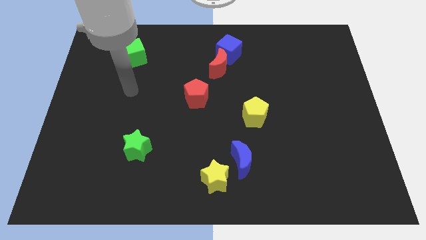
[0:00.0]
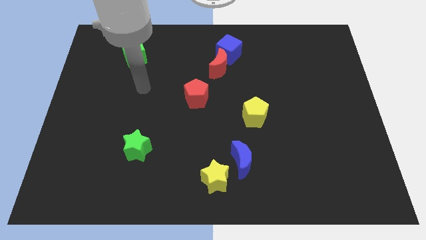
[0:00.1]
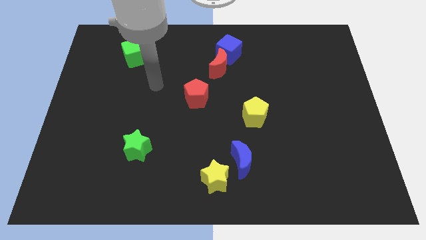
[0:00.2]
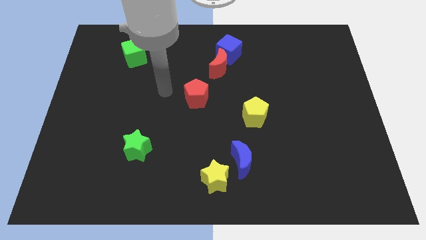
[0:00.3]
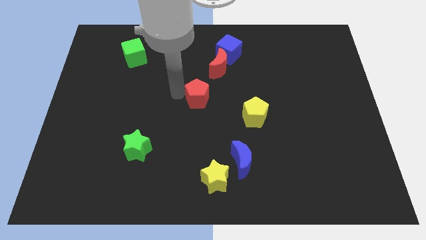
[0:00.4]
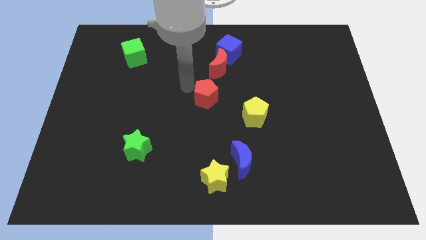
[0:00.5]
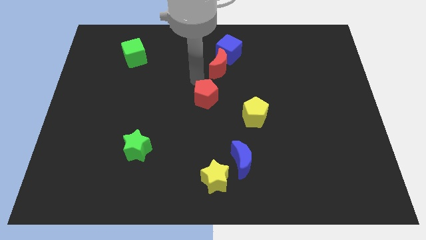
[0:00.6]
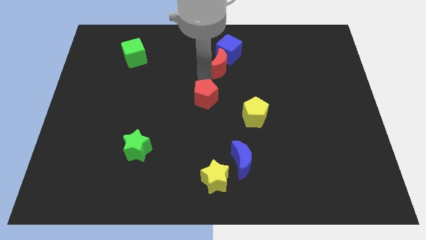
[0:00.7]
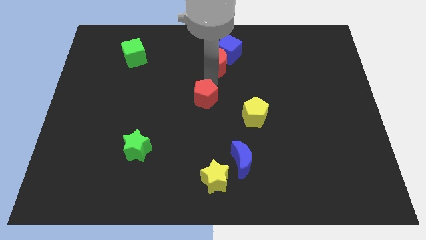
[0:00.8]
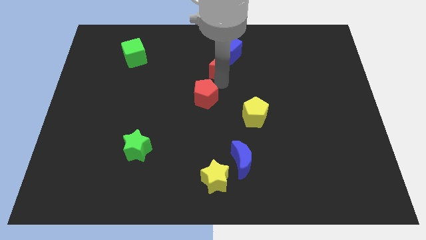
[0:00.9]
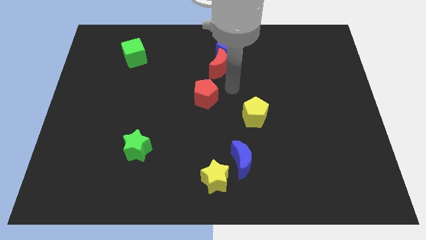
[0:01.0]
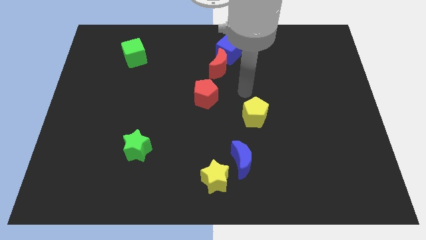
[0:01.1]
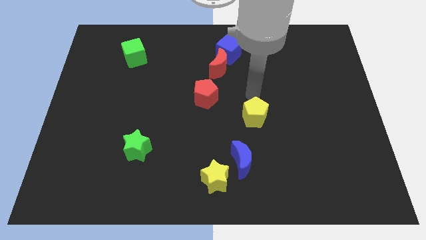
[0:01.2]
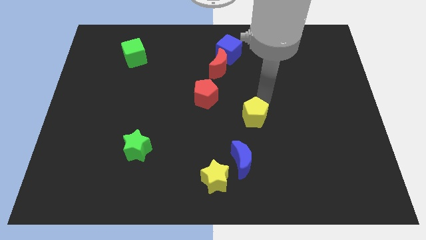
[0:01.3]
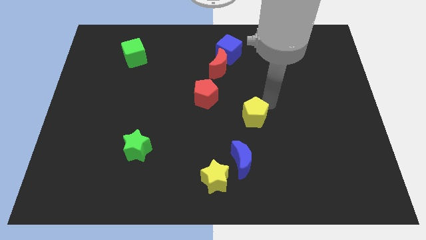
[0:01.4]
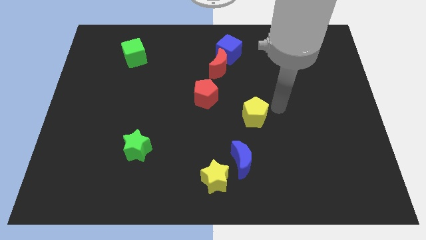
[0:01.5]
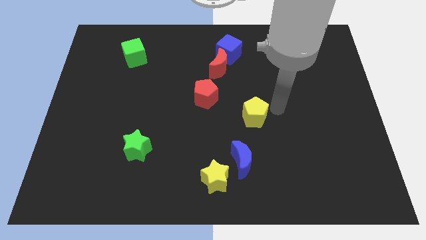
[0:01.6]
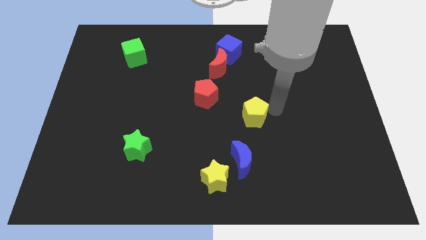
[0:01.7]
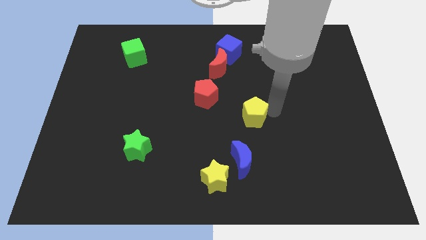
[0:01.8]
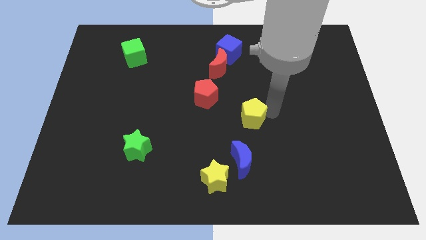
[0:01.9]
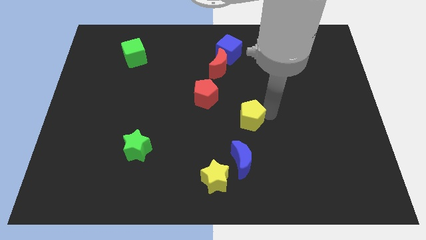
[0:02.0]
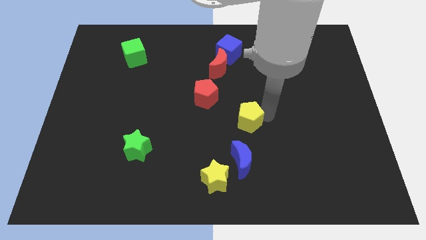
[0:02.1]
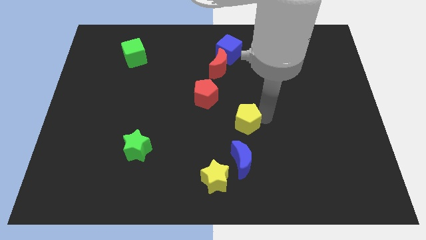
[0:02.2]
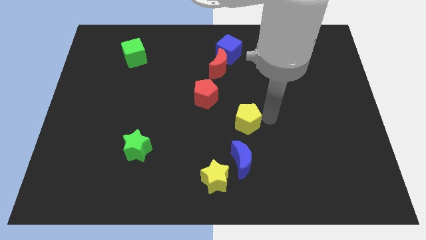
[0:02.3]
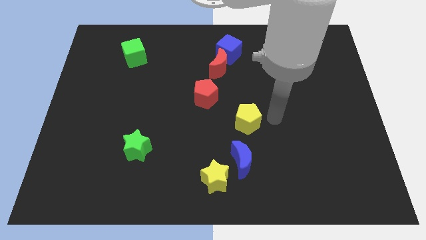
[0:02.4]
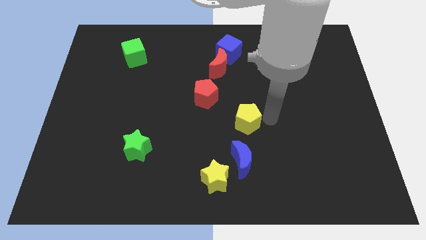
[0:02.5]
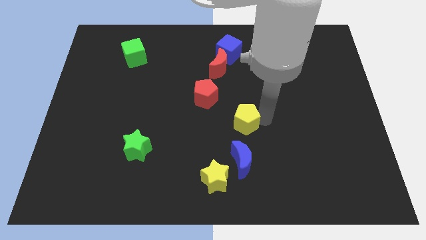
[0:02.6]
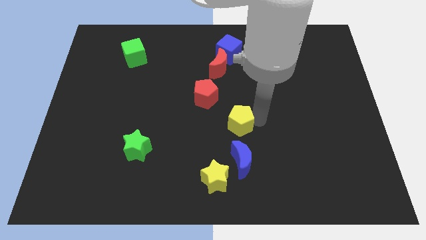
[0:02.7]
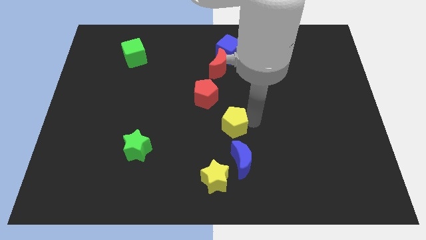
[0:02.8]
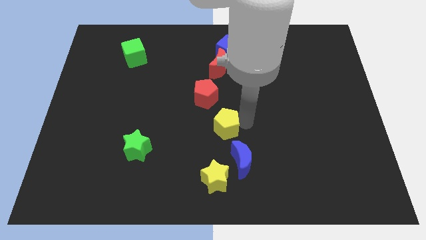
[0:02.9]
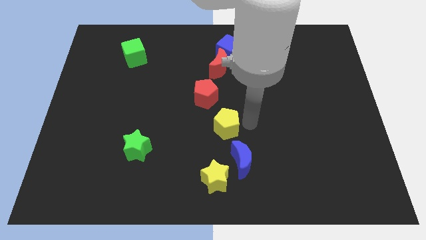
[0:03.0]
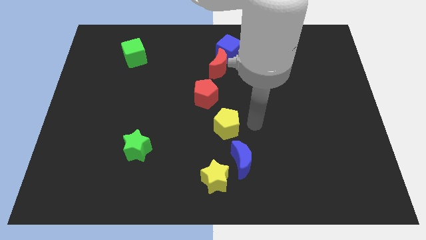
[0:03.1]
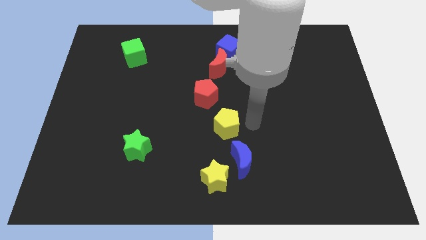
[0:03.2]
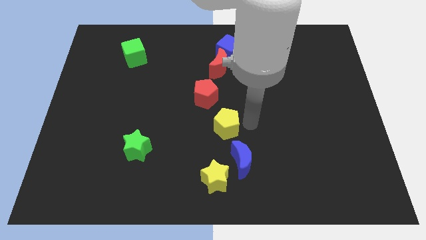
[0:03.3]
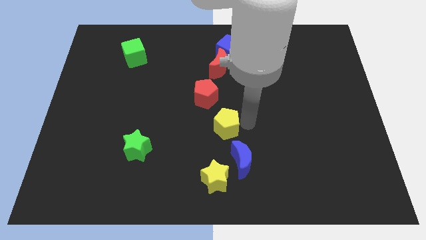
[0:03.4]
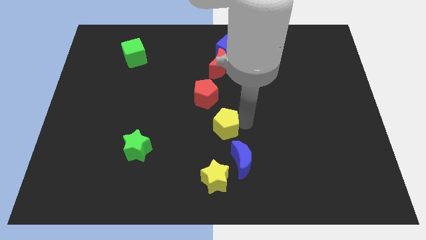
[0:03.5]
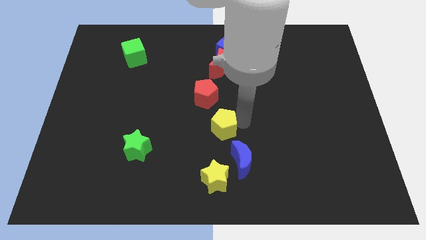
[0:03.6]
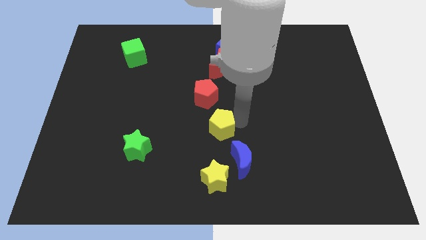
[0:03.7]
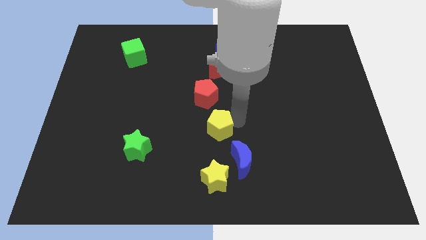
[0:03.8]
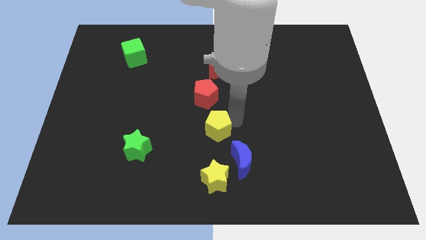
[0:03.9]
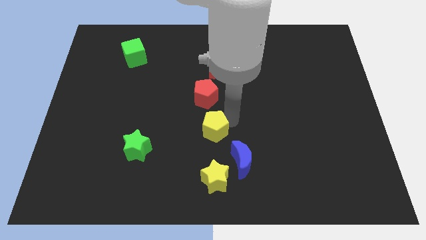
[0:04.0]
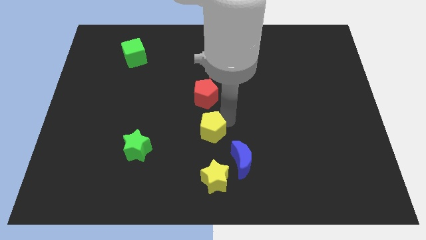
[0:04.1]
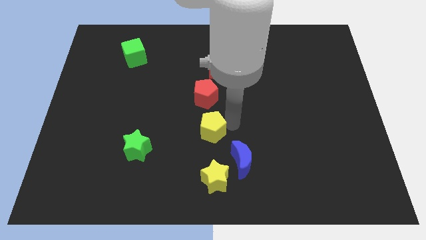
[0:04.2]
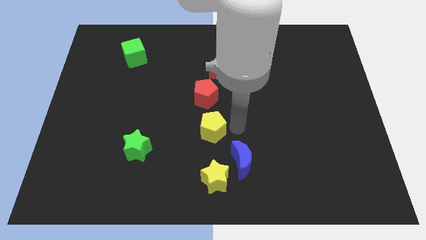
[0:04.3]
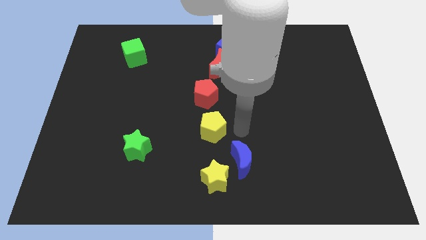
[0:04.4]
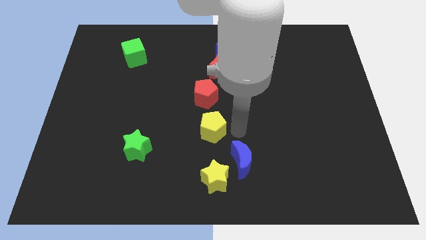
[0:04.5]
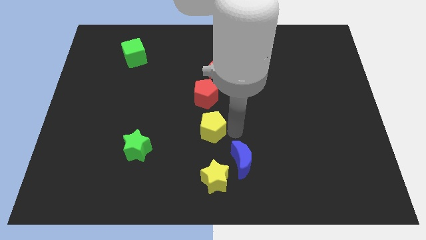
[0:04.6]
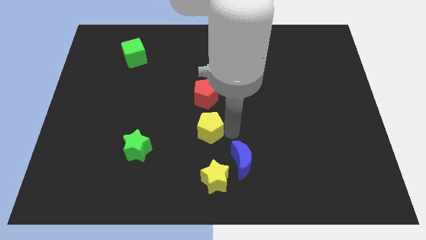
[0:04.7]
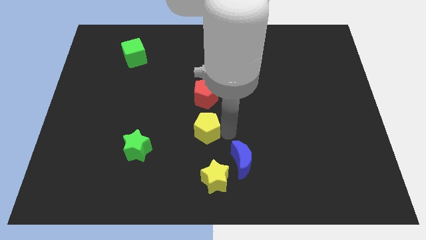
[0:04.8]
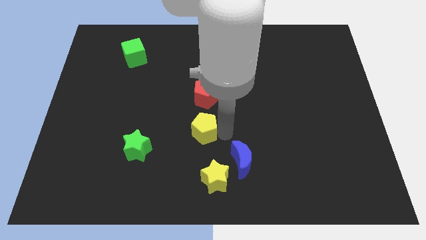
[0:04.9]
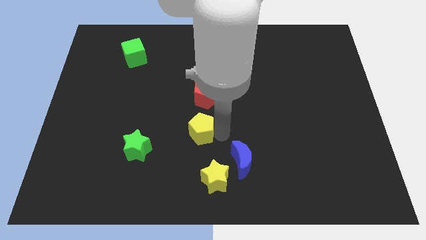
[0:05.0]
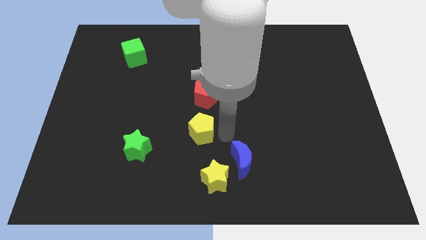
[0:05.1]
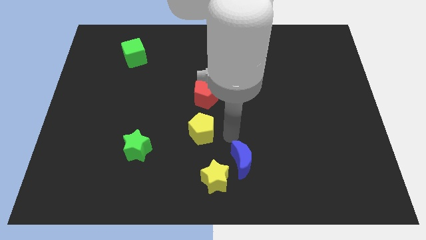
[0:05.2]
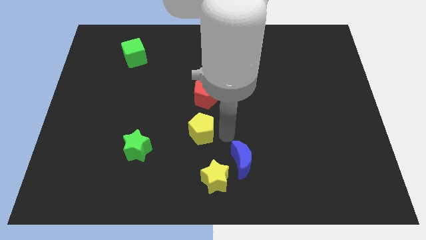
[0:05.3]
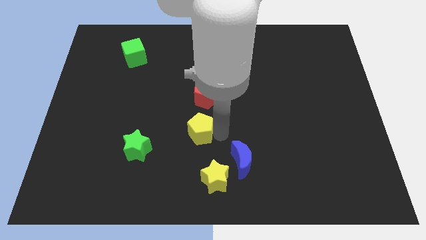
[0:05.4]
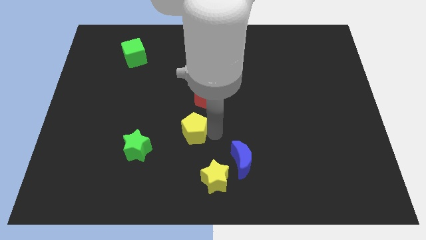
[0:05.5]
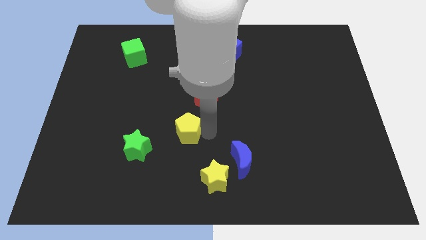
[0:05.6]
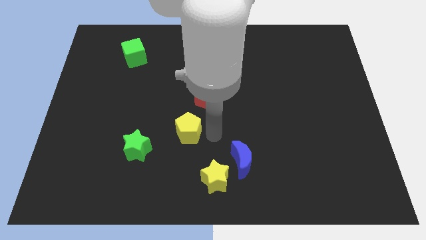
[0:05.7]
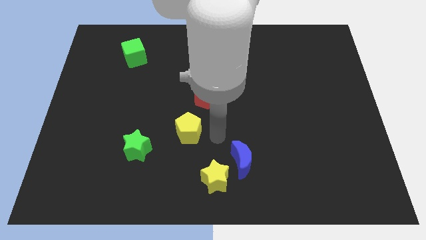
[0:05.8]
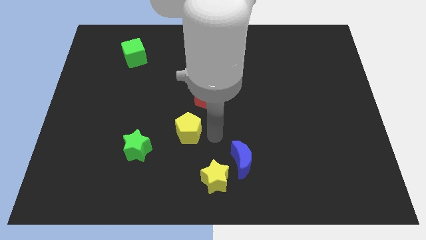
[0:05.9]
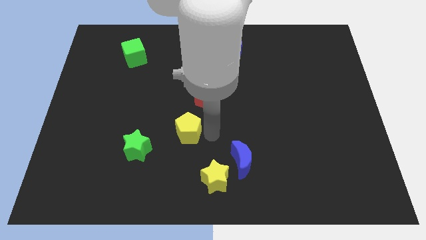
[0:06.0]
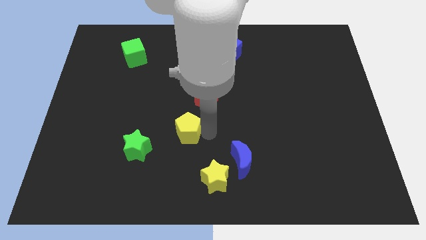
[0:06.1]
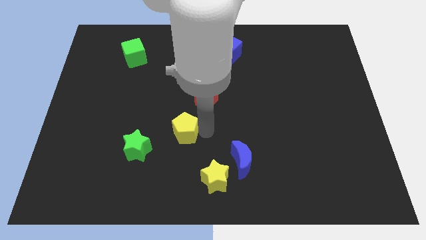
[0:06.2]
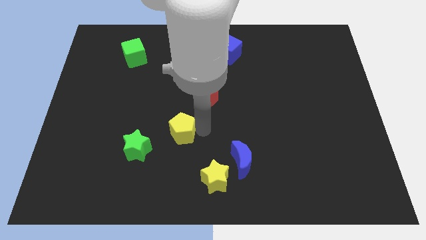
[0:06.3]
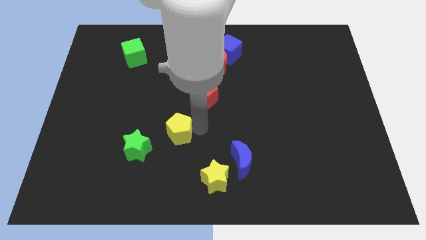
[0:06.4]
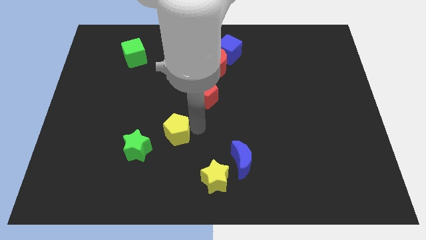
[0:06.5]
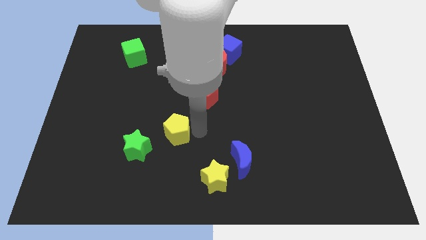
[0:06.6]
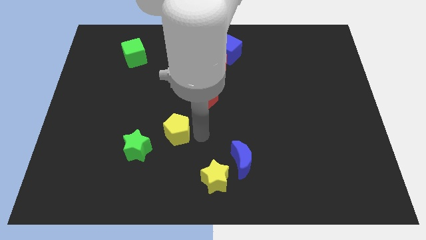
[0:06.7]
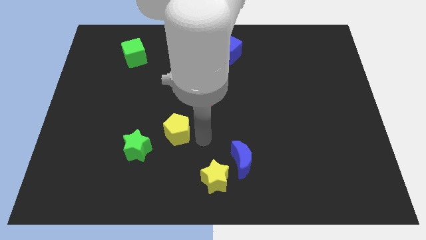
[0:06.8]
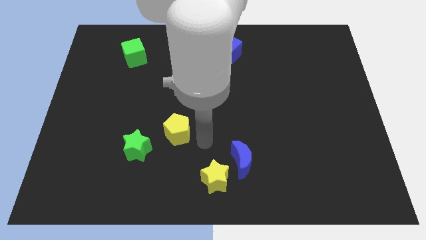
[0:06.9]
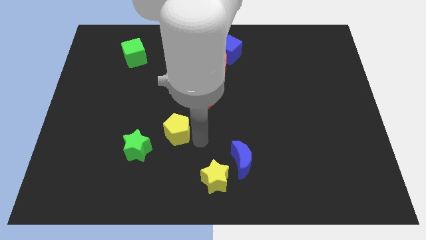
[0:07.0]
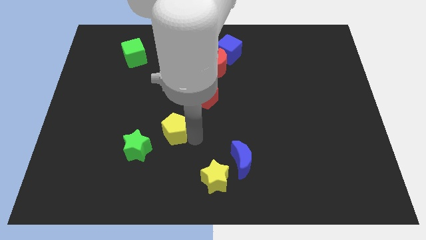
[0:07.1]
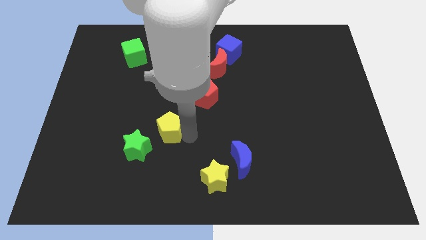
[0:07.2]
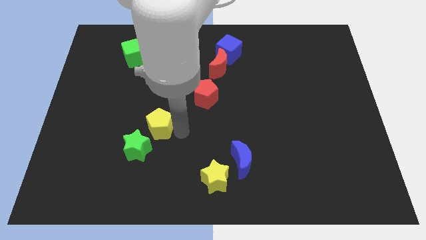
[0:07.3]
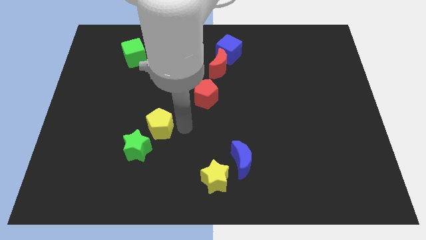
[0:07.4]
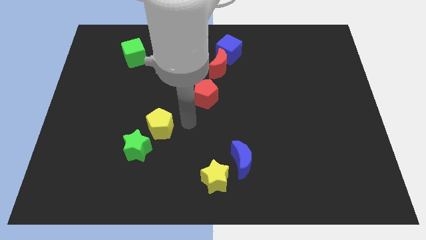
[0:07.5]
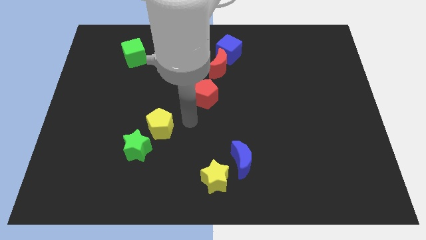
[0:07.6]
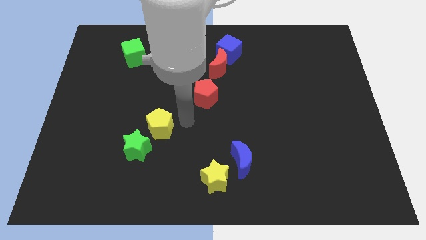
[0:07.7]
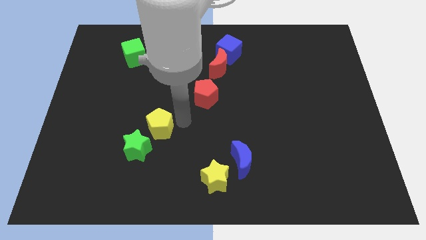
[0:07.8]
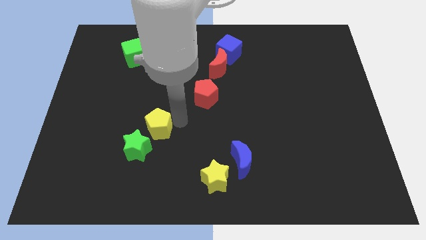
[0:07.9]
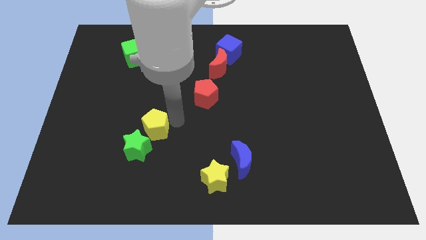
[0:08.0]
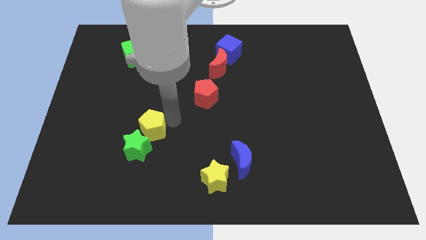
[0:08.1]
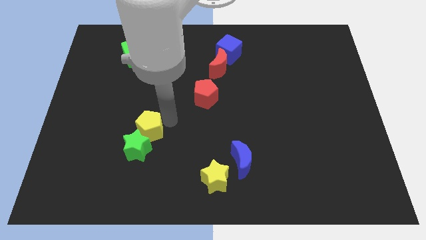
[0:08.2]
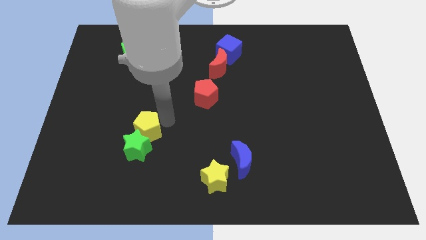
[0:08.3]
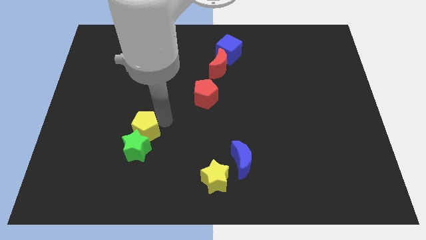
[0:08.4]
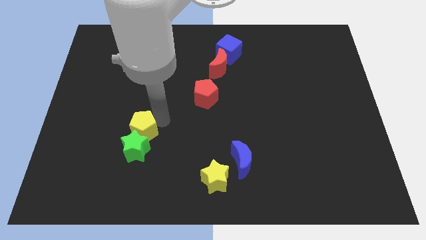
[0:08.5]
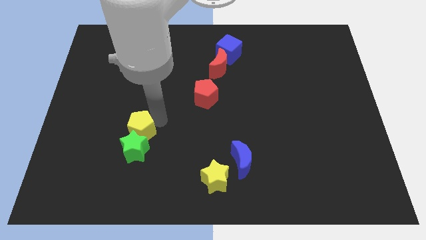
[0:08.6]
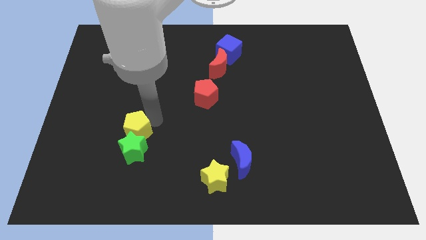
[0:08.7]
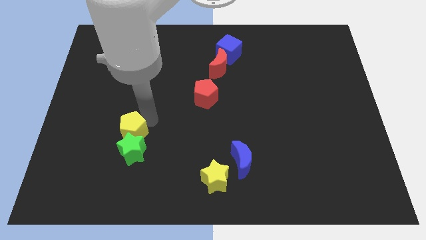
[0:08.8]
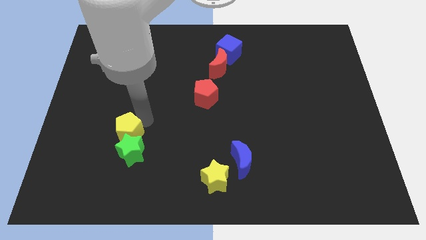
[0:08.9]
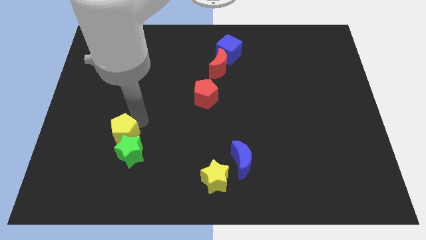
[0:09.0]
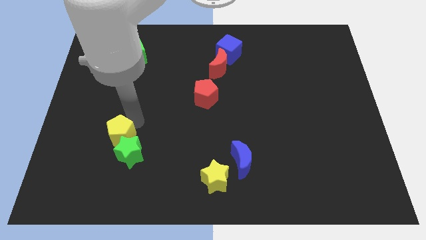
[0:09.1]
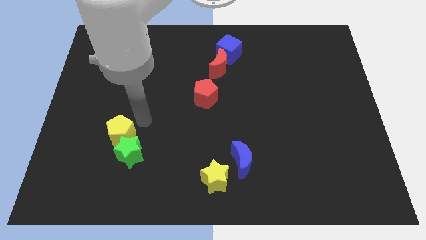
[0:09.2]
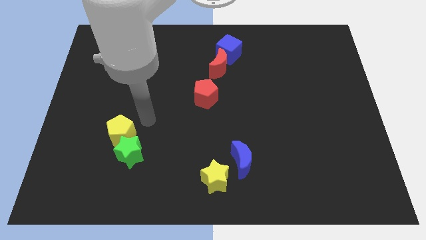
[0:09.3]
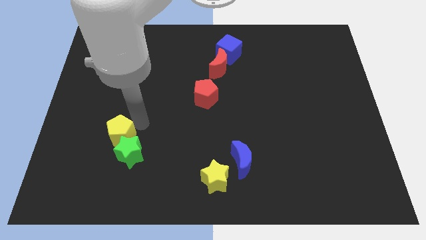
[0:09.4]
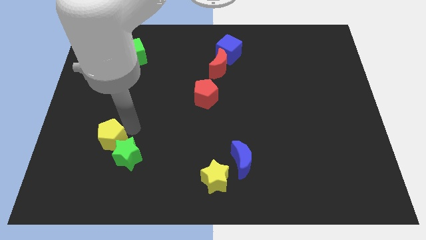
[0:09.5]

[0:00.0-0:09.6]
push the yellow pentagon left of the green star
